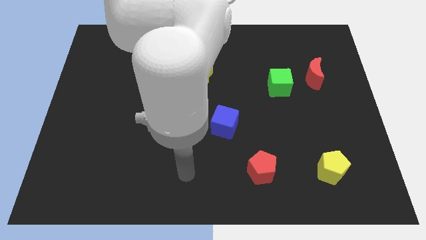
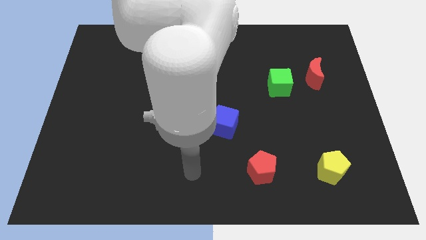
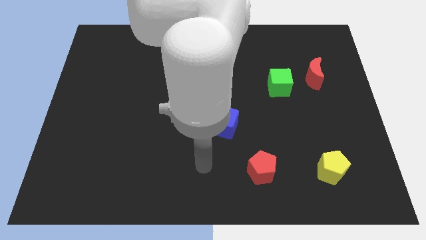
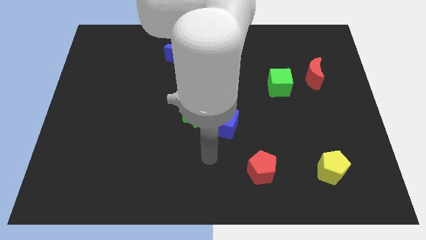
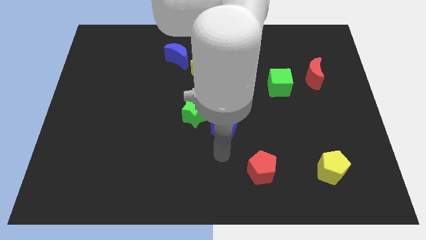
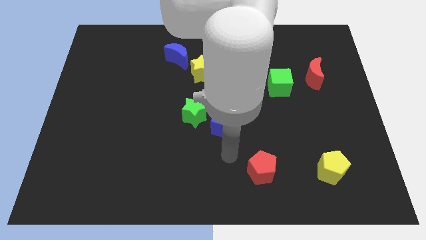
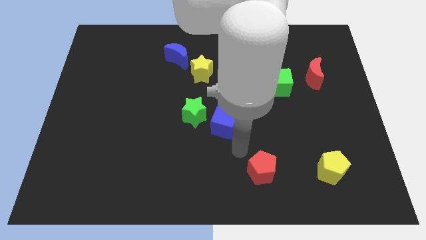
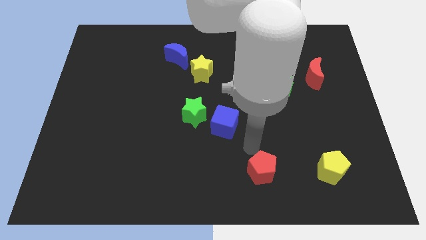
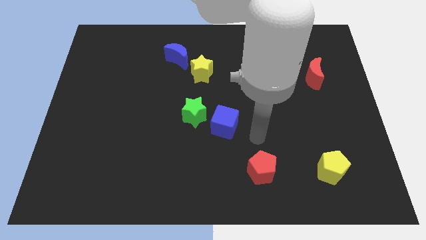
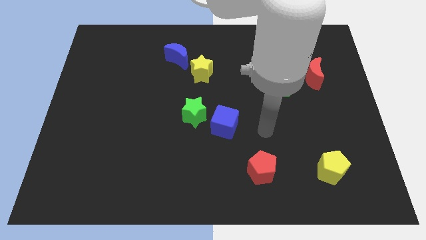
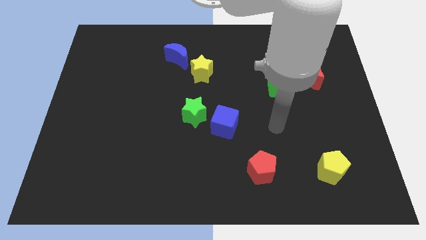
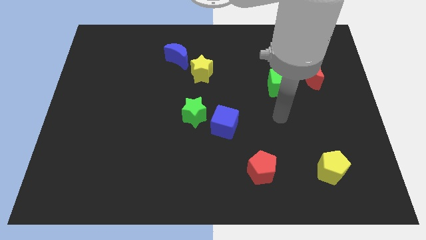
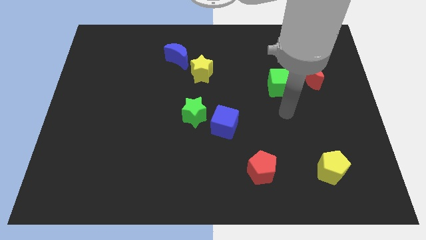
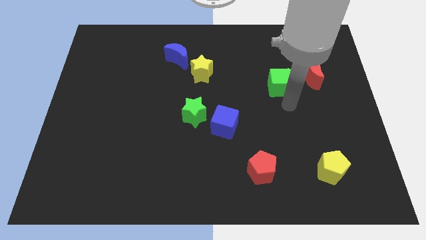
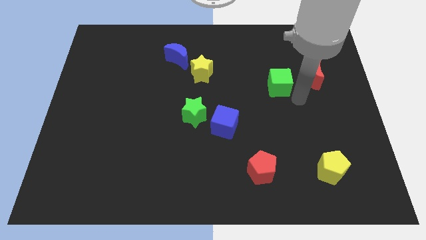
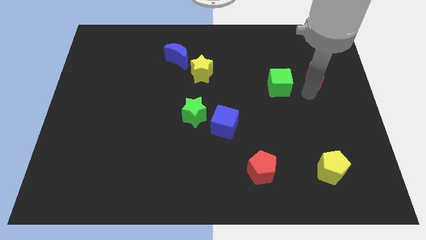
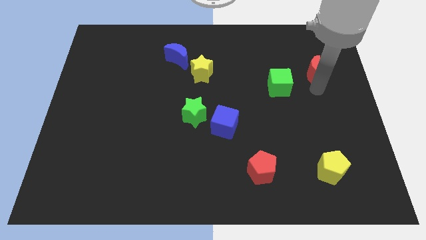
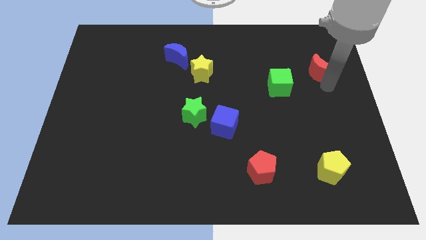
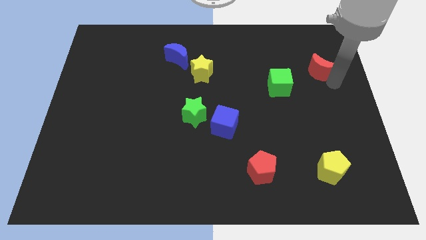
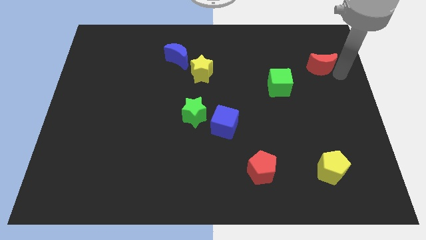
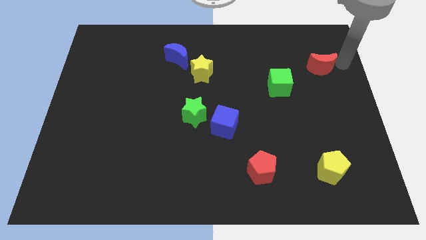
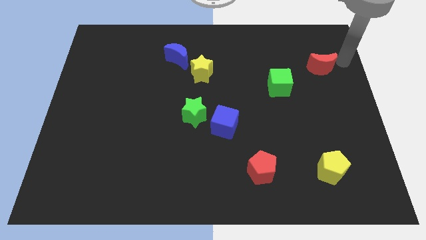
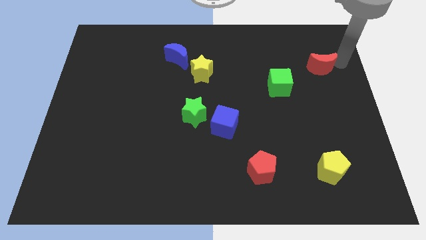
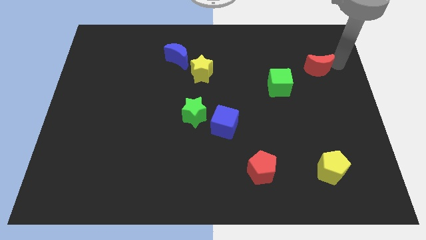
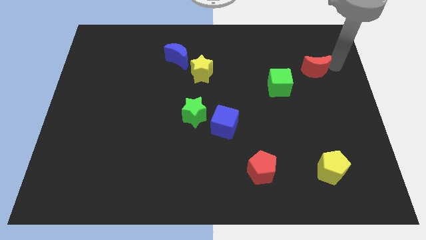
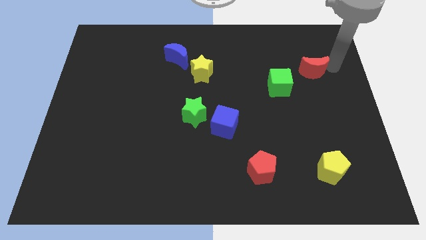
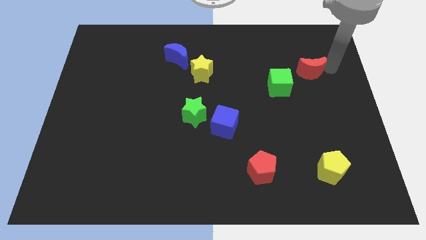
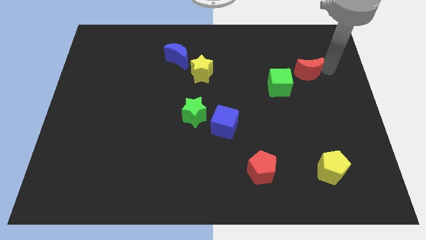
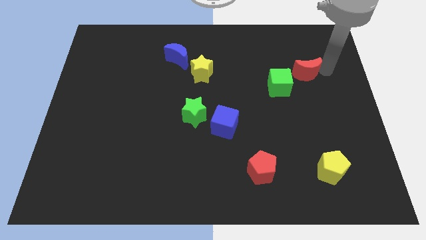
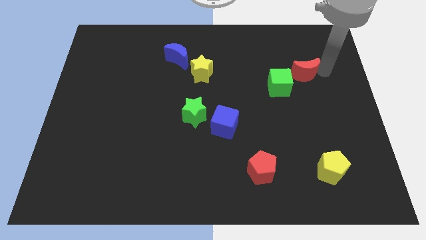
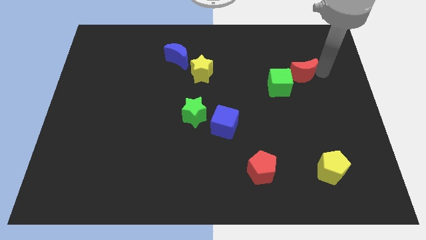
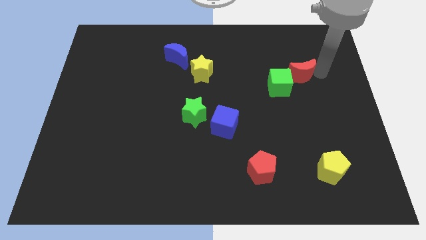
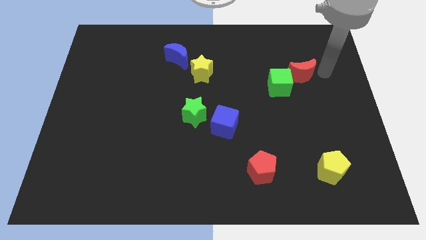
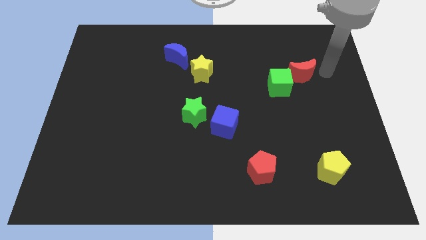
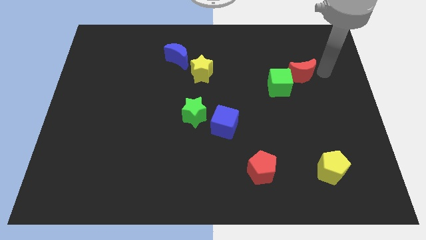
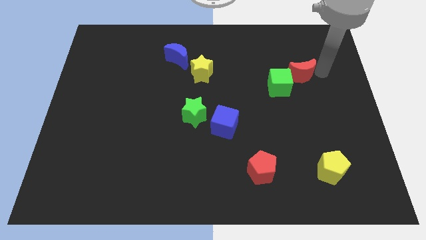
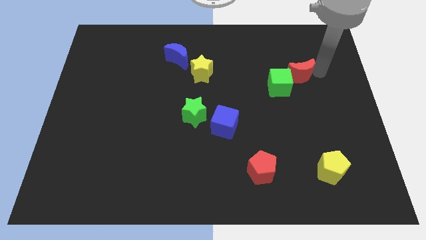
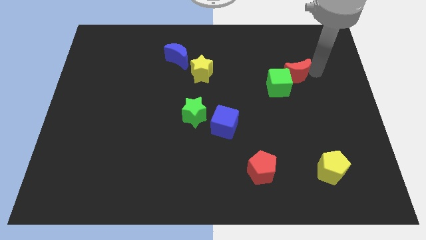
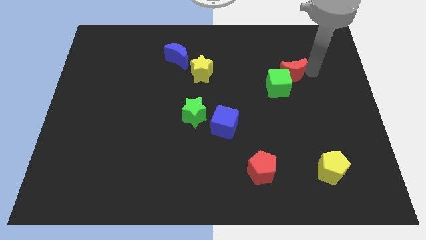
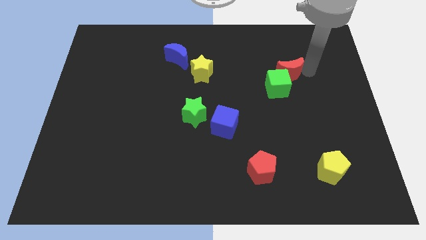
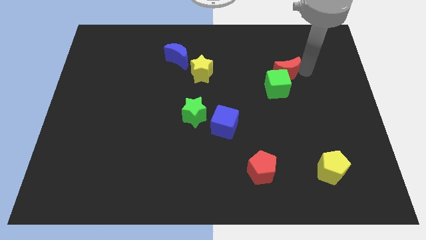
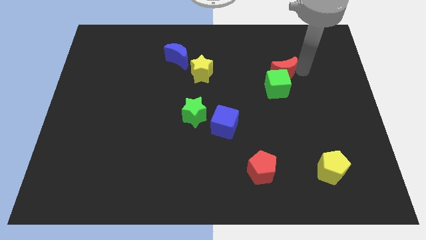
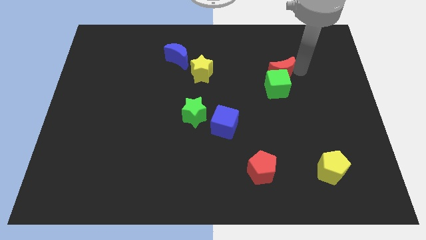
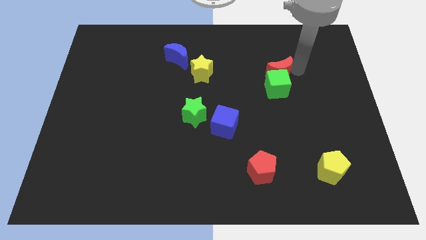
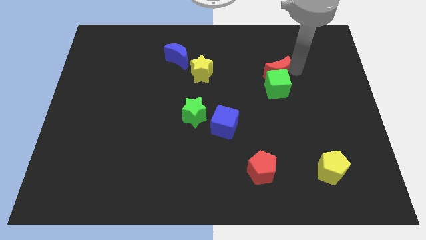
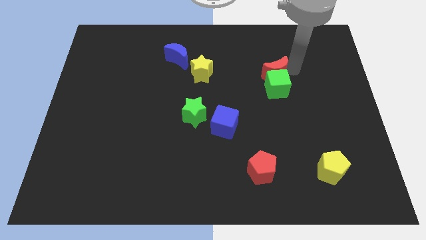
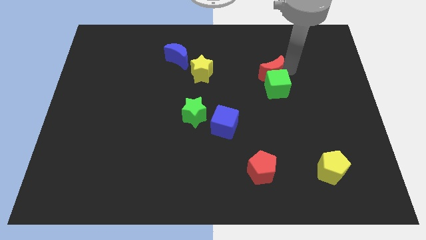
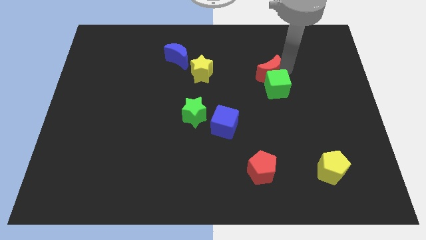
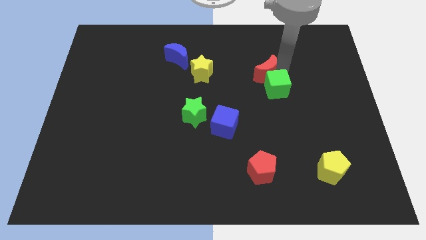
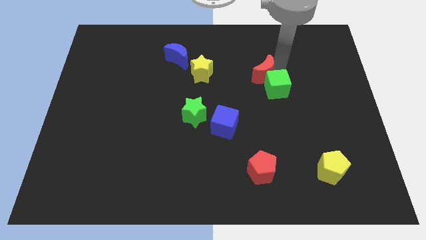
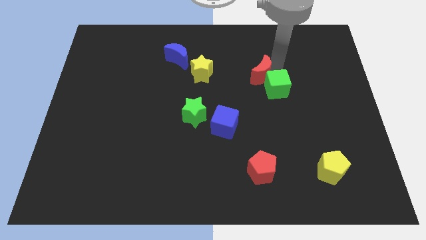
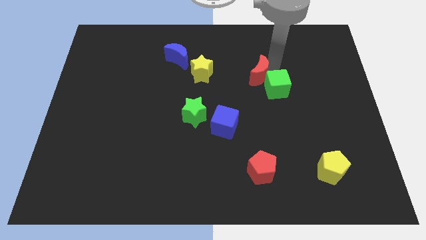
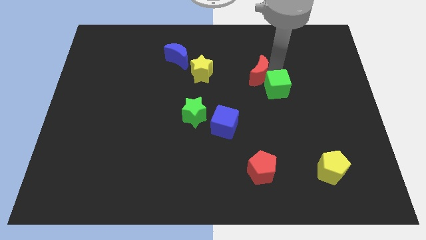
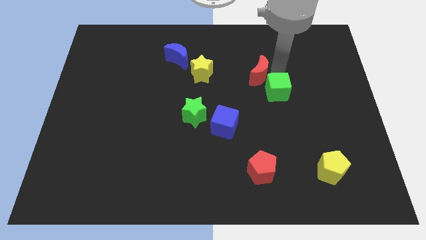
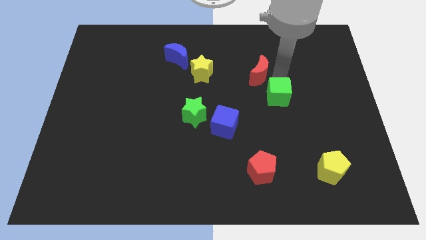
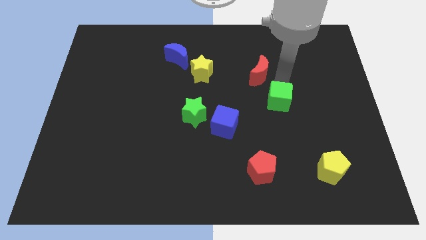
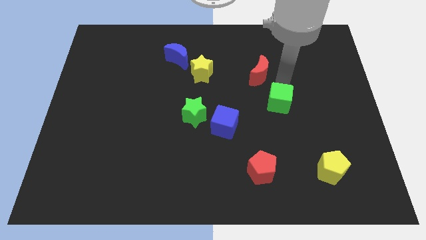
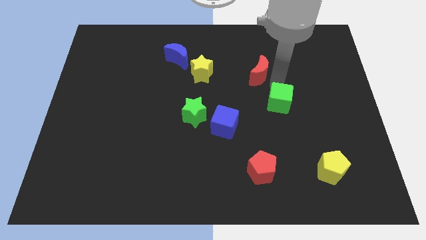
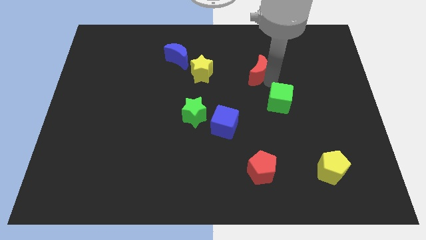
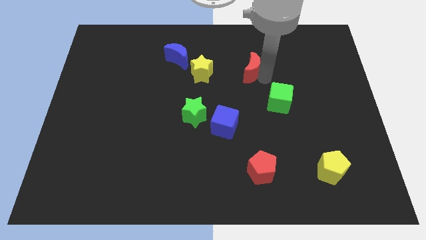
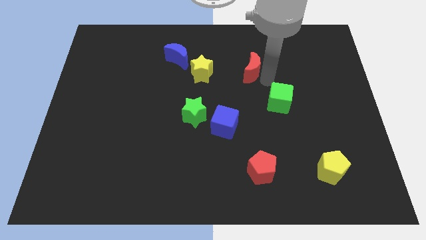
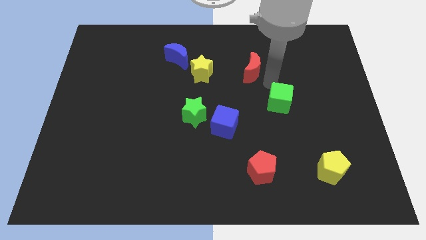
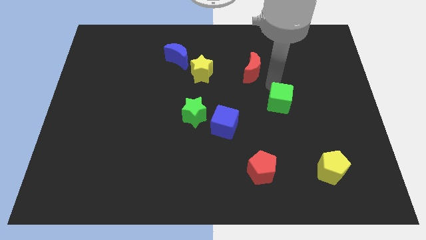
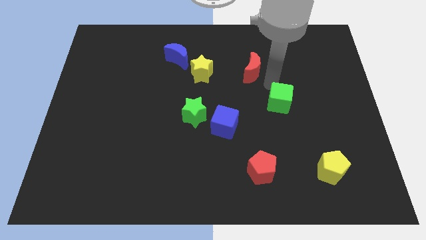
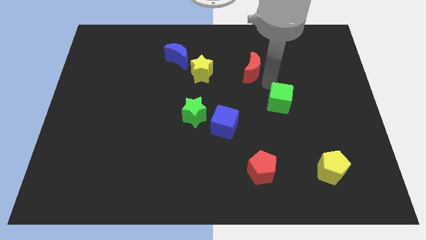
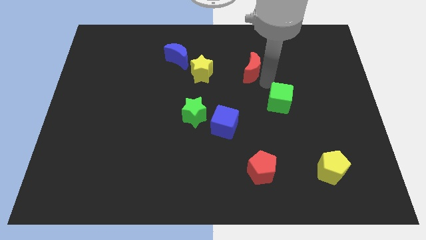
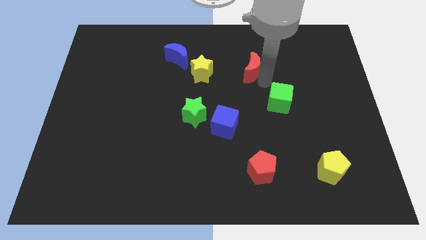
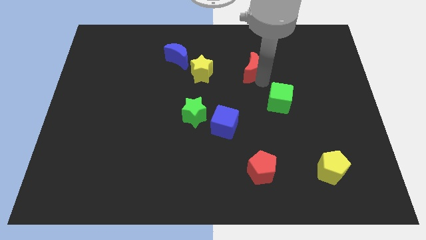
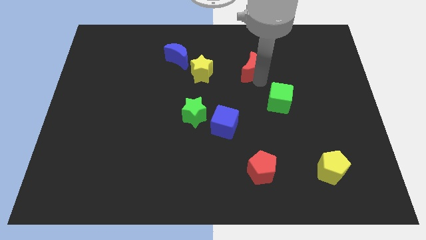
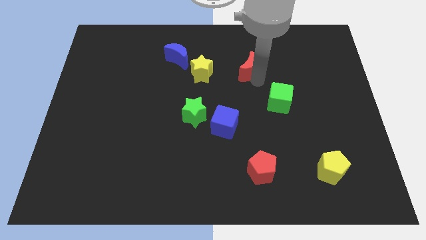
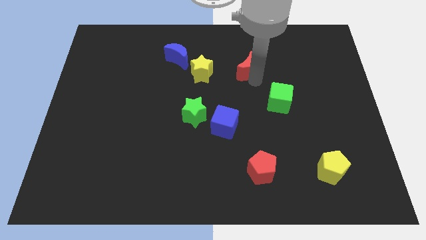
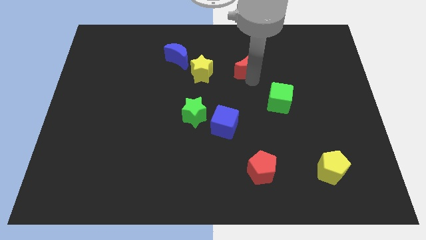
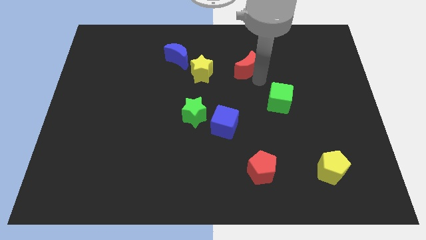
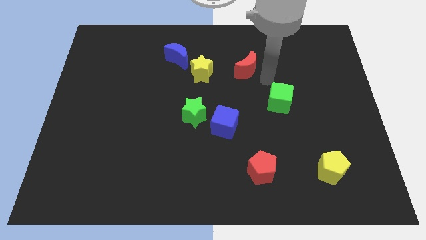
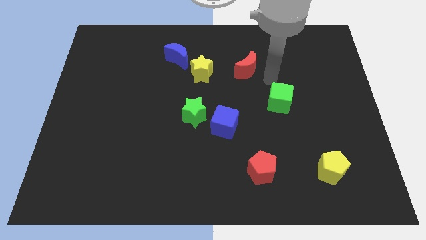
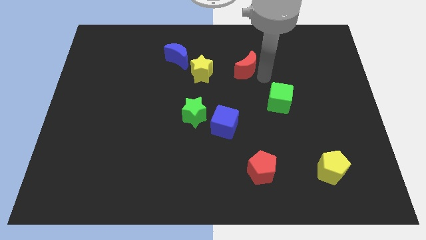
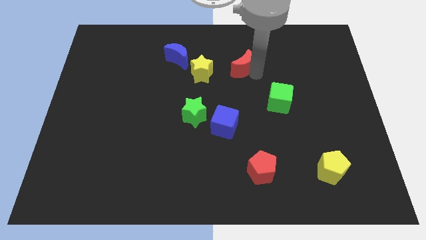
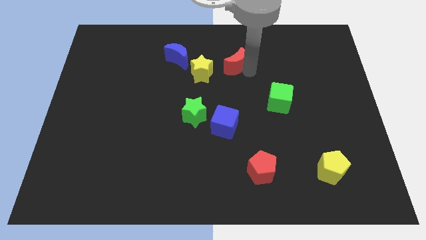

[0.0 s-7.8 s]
push the red moon just right of the blue moon

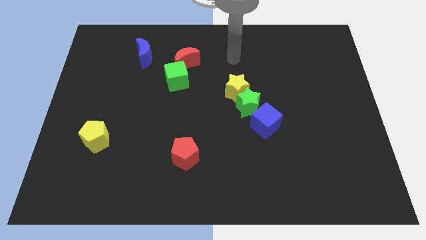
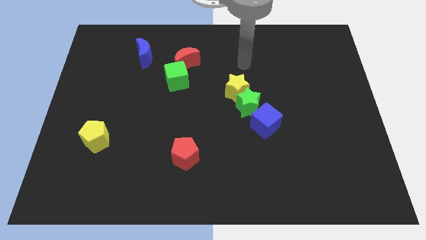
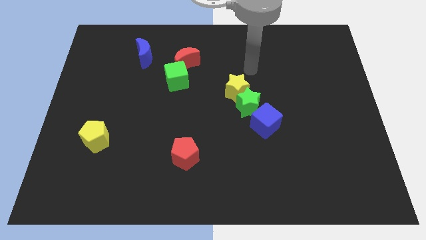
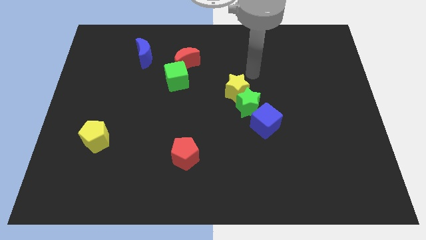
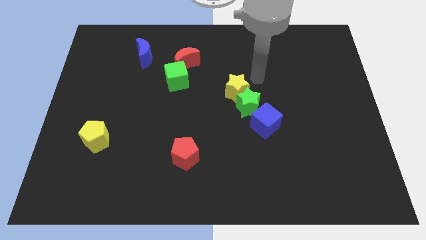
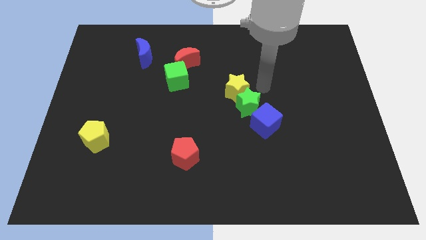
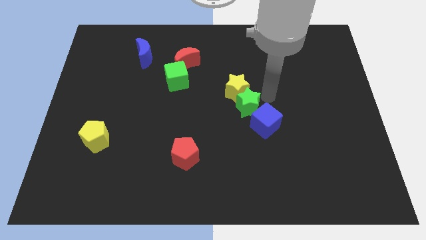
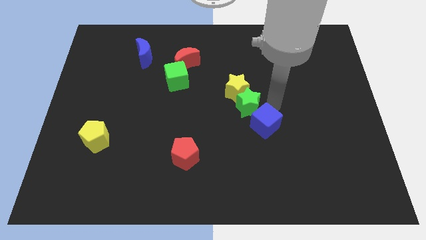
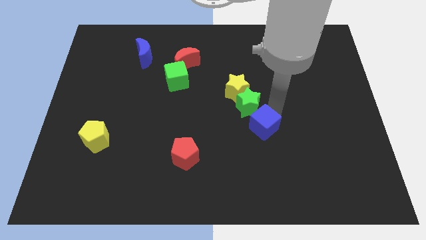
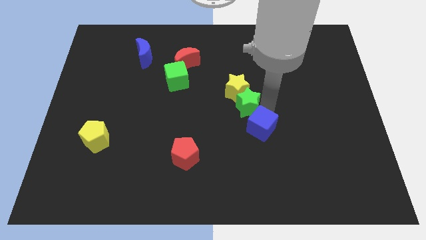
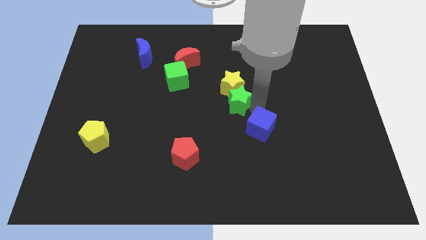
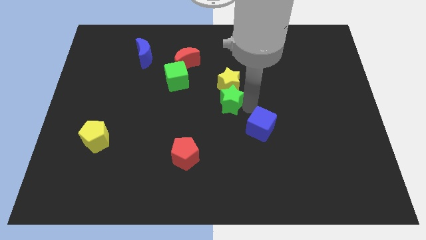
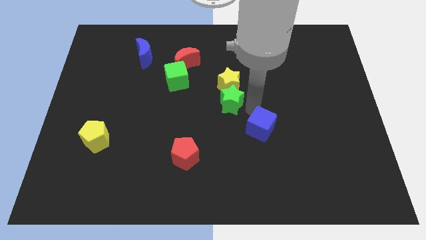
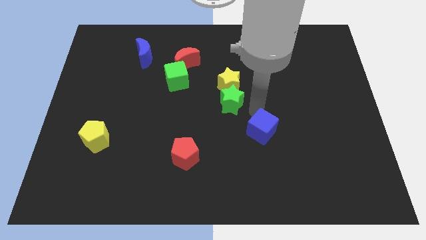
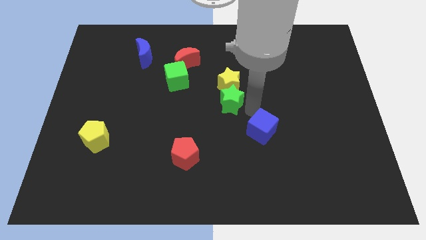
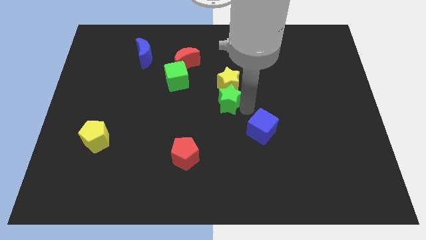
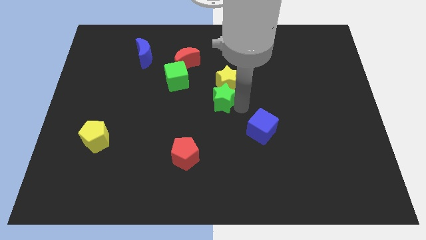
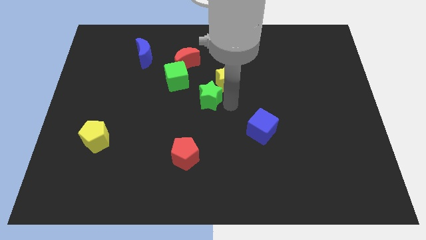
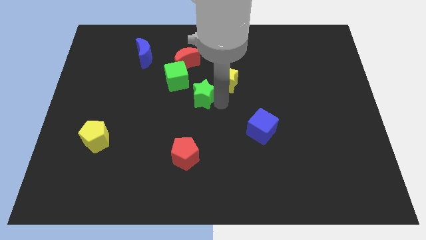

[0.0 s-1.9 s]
slide the green star to the left side of the yellow star
